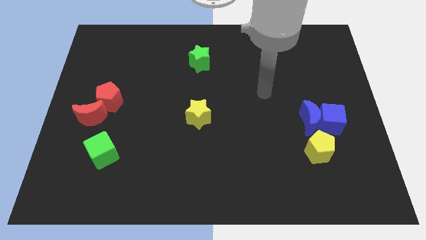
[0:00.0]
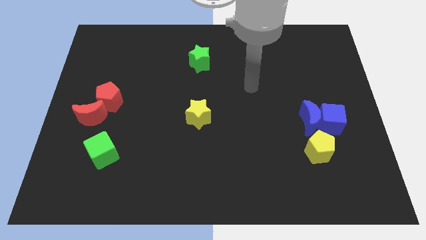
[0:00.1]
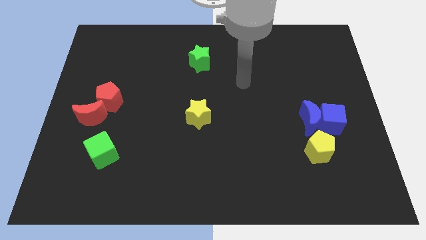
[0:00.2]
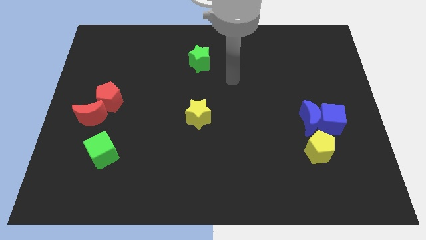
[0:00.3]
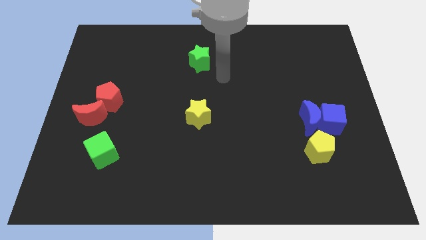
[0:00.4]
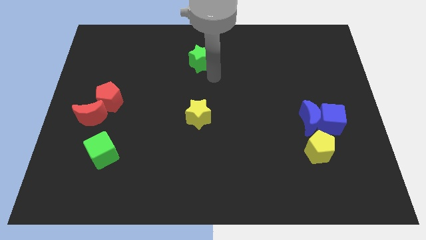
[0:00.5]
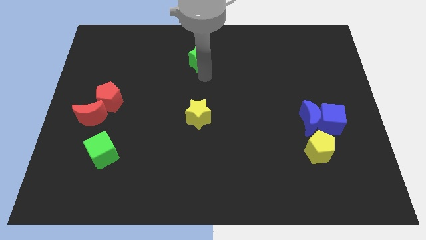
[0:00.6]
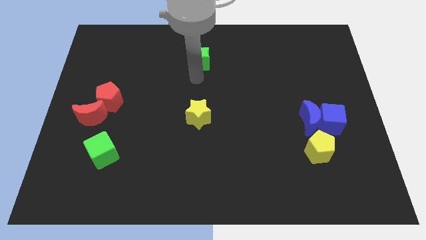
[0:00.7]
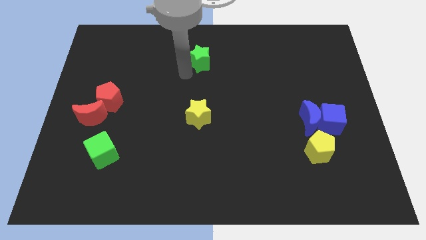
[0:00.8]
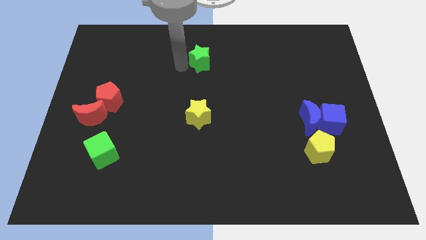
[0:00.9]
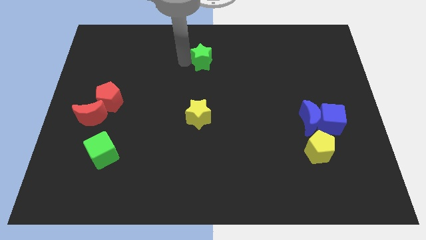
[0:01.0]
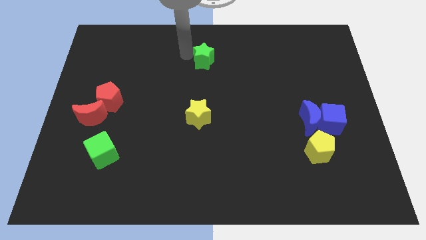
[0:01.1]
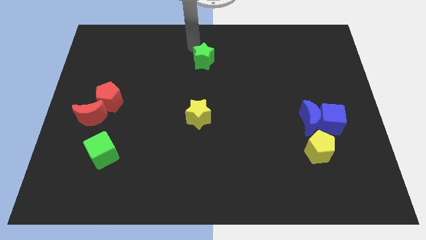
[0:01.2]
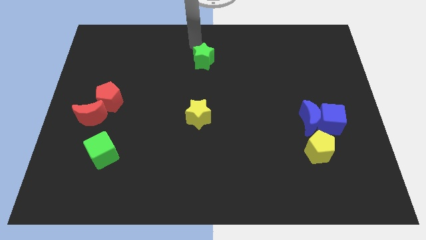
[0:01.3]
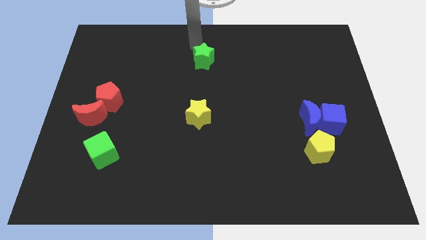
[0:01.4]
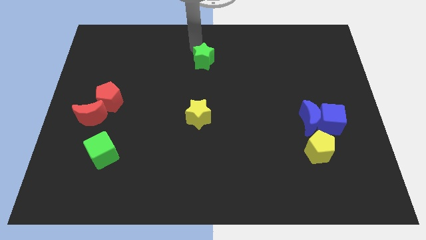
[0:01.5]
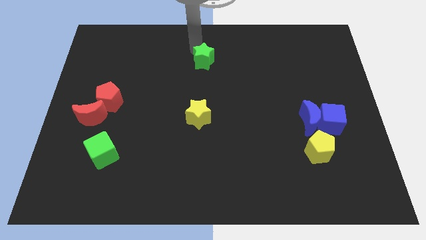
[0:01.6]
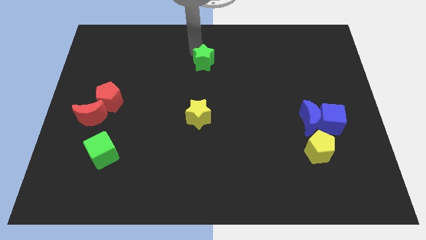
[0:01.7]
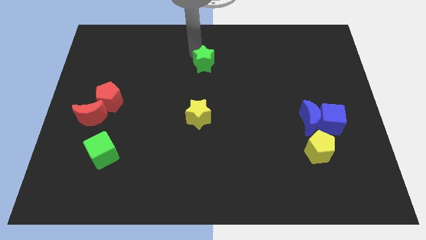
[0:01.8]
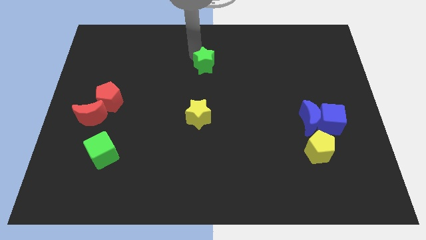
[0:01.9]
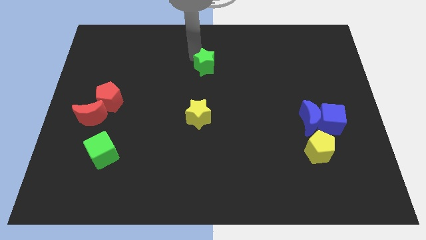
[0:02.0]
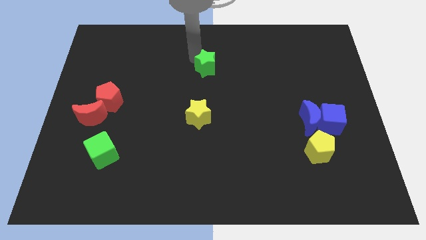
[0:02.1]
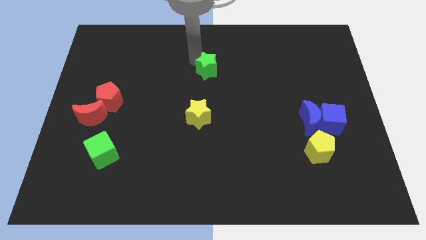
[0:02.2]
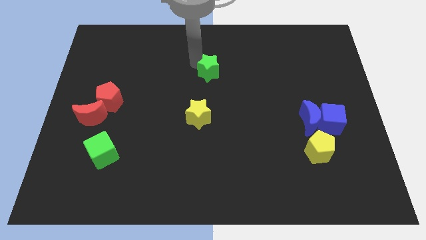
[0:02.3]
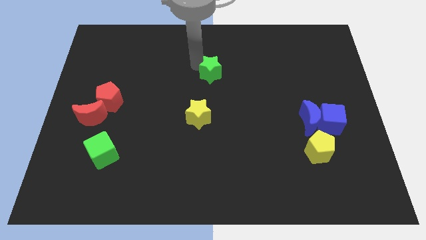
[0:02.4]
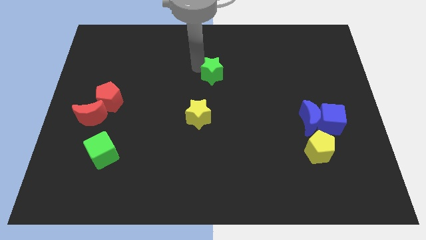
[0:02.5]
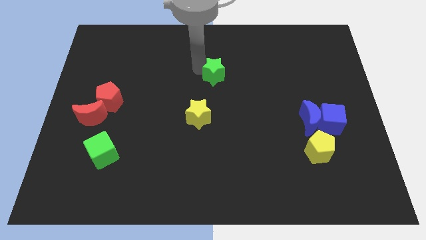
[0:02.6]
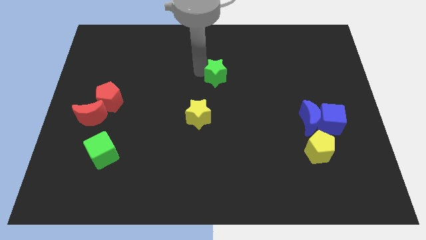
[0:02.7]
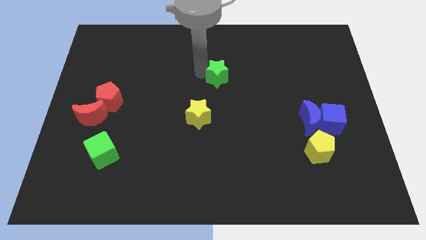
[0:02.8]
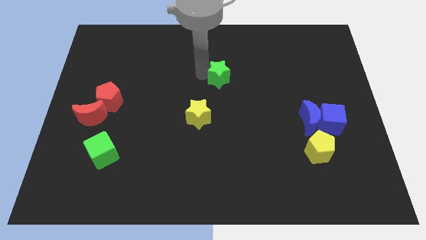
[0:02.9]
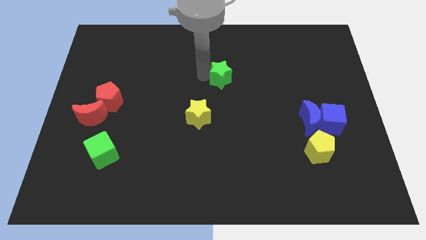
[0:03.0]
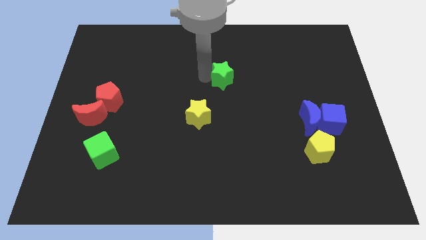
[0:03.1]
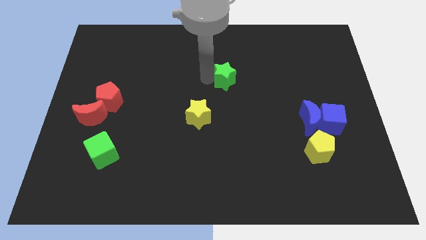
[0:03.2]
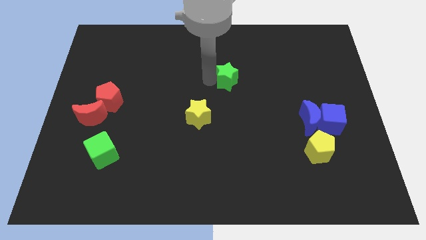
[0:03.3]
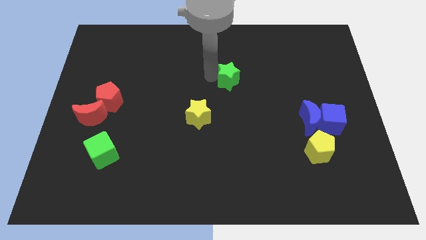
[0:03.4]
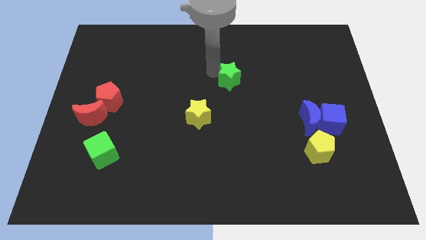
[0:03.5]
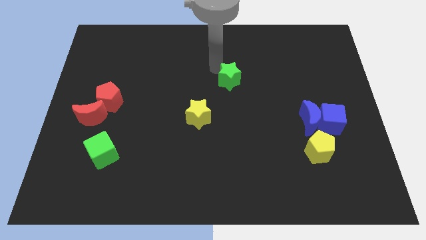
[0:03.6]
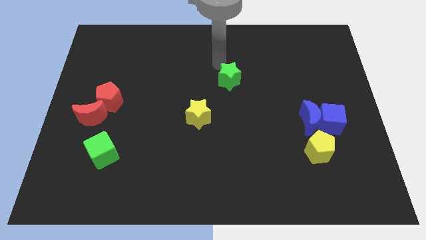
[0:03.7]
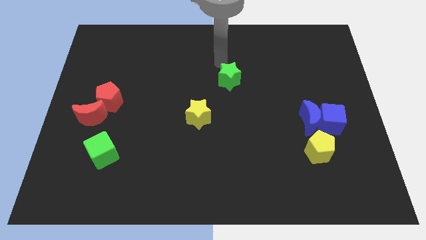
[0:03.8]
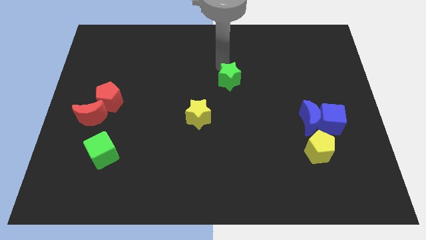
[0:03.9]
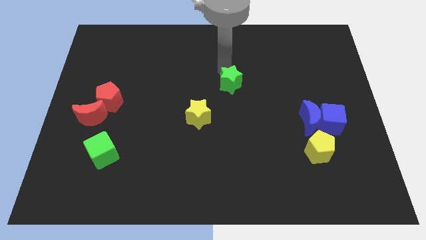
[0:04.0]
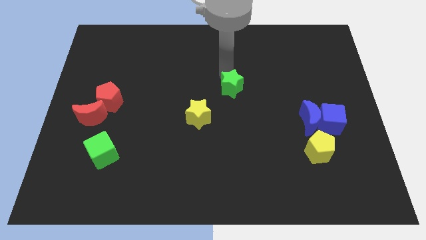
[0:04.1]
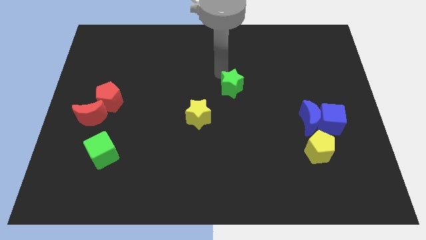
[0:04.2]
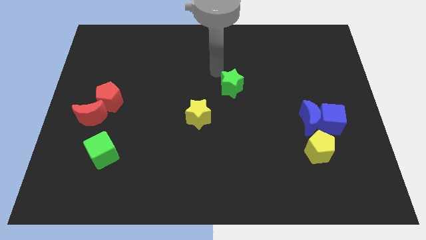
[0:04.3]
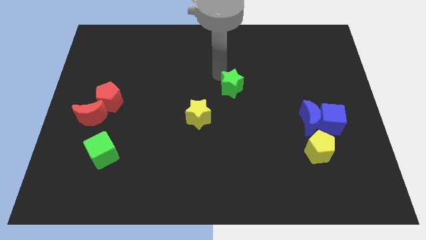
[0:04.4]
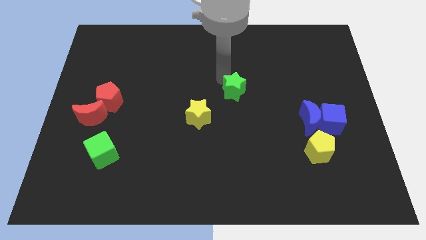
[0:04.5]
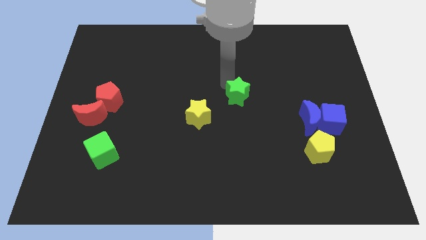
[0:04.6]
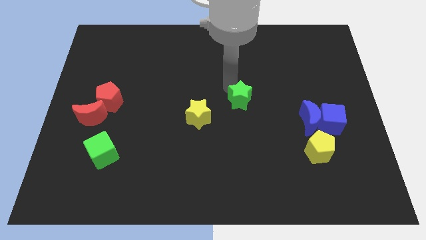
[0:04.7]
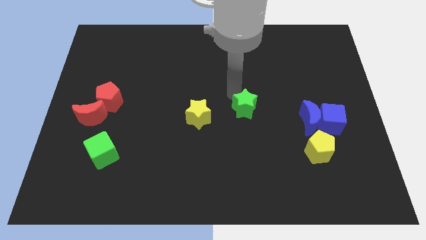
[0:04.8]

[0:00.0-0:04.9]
put the green star just left of the blue moon

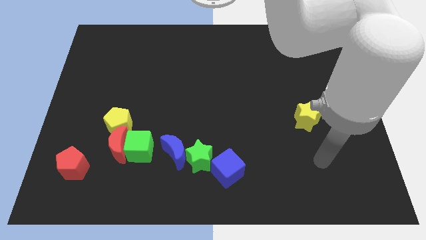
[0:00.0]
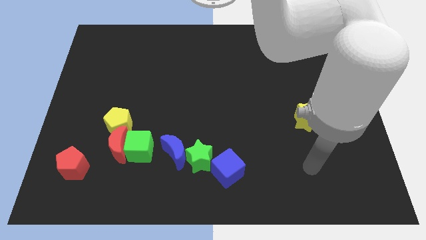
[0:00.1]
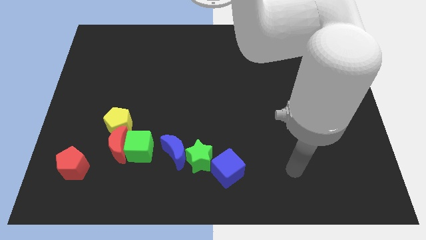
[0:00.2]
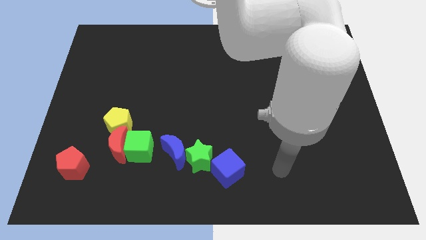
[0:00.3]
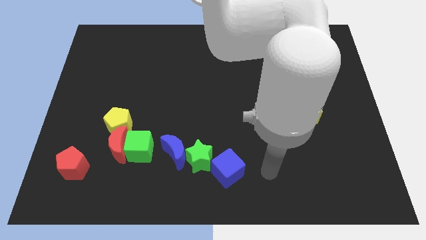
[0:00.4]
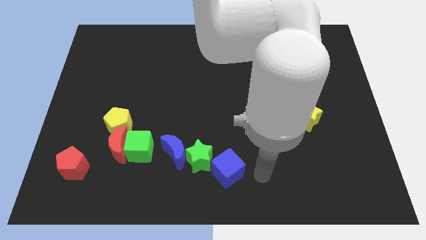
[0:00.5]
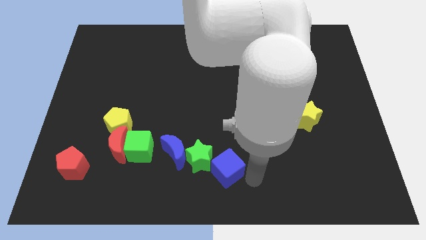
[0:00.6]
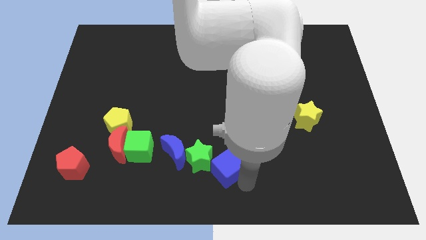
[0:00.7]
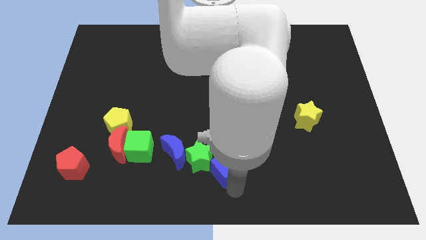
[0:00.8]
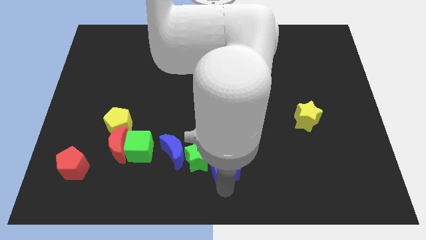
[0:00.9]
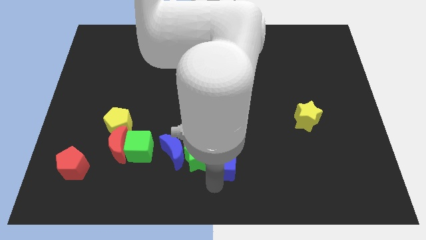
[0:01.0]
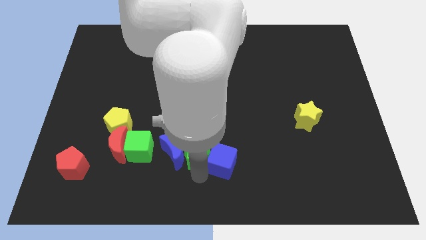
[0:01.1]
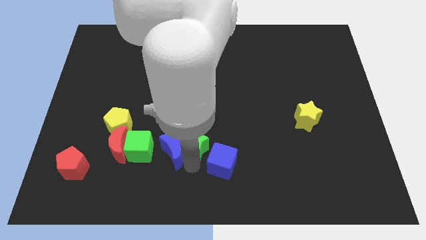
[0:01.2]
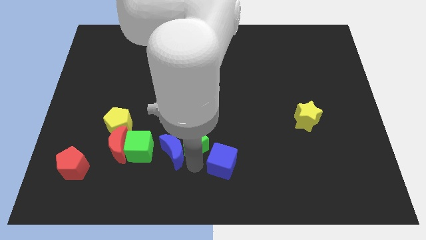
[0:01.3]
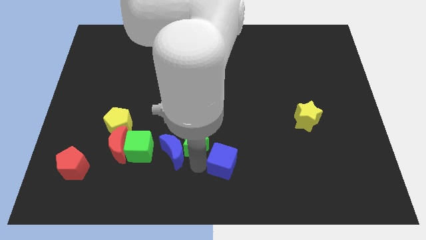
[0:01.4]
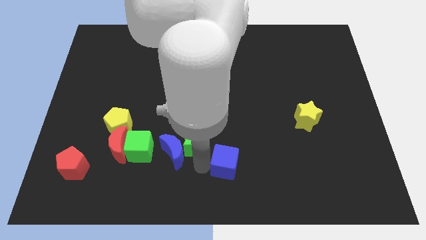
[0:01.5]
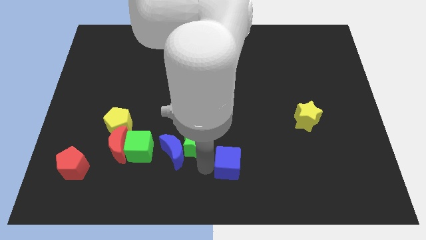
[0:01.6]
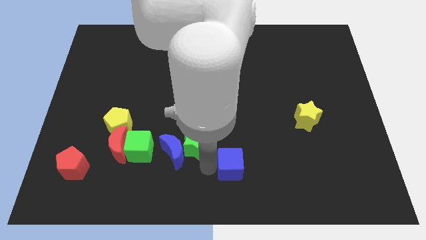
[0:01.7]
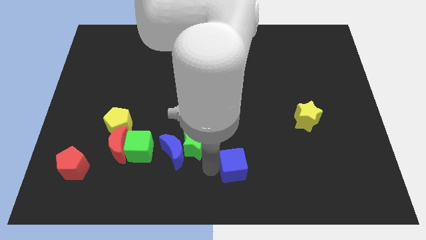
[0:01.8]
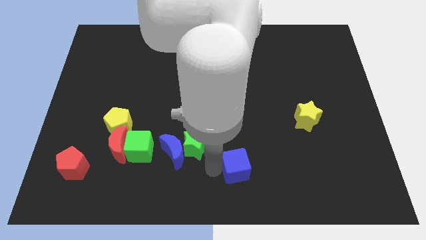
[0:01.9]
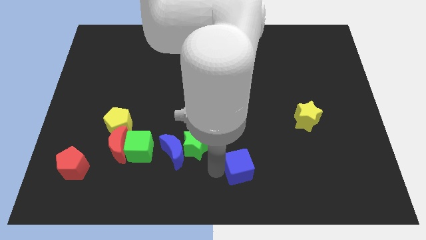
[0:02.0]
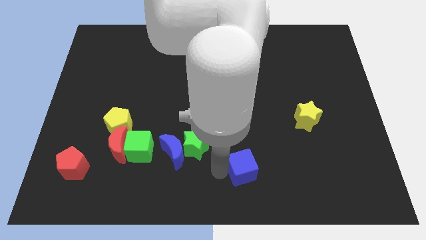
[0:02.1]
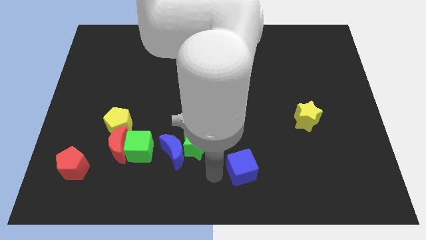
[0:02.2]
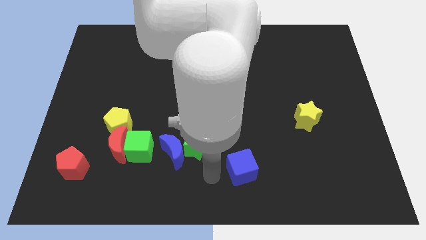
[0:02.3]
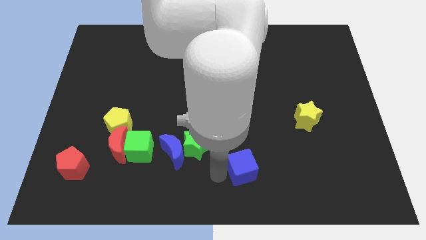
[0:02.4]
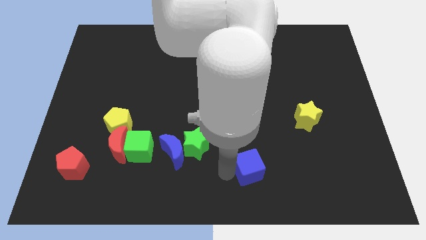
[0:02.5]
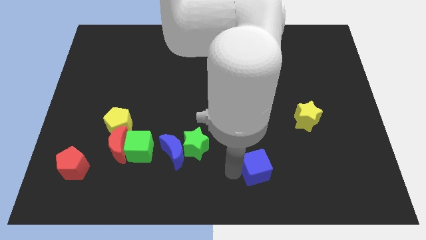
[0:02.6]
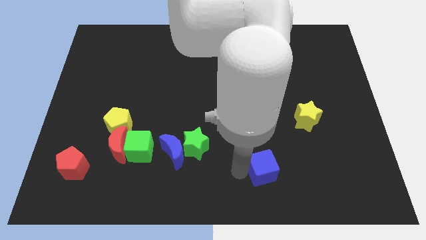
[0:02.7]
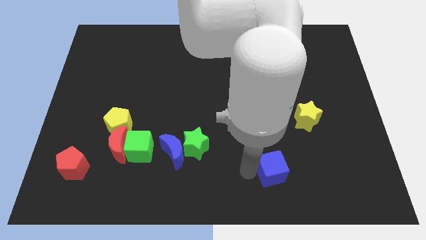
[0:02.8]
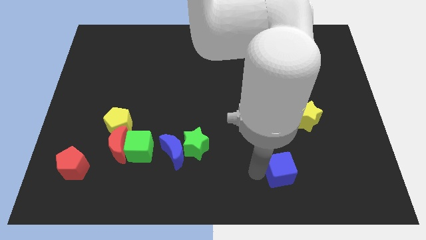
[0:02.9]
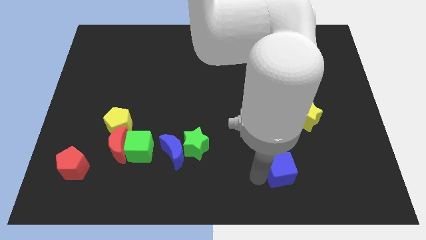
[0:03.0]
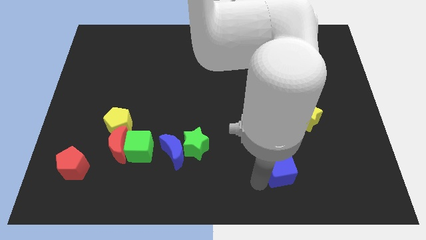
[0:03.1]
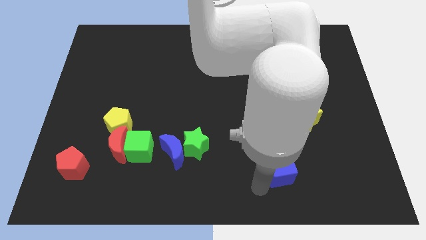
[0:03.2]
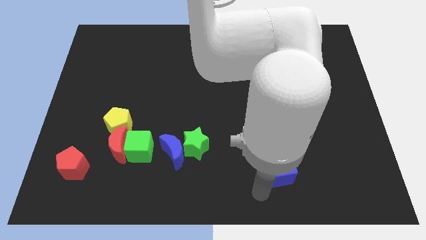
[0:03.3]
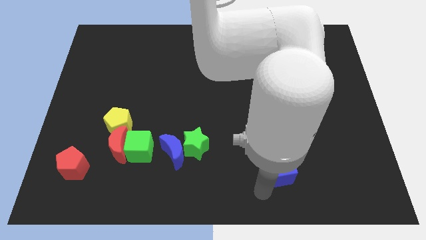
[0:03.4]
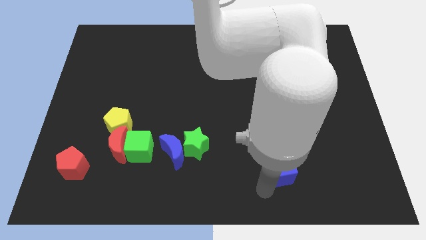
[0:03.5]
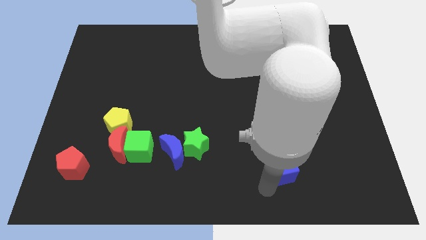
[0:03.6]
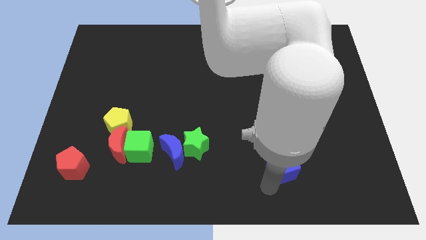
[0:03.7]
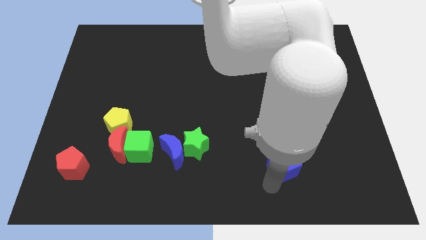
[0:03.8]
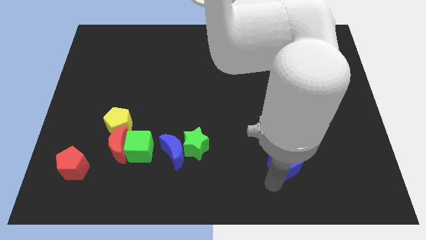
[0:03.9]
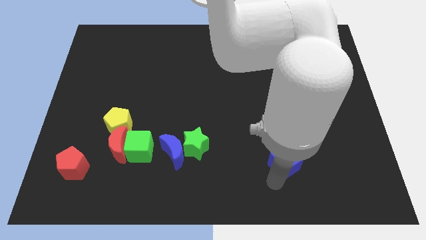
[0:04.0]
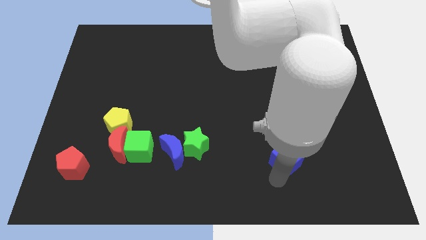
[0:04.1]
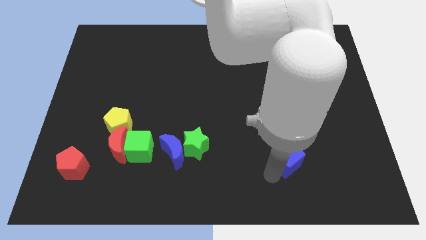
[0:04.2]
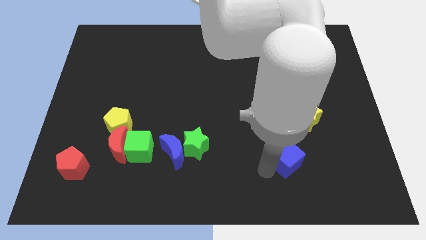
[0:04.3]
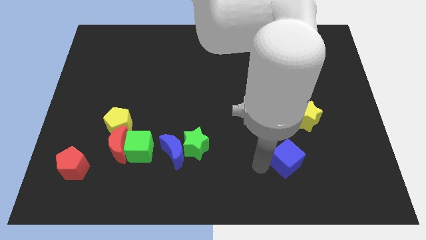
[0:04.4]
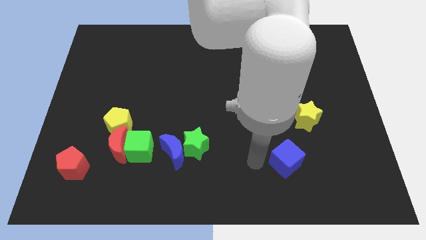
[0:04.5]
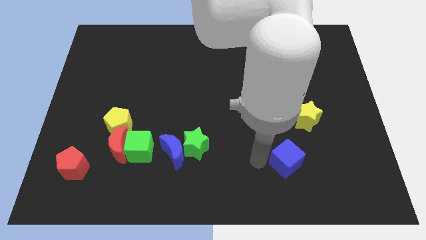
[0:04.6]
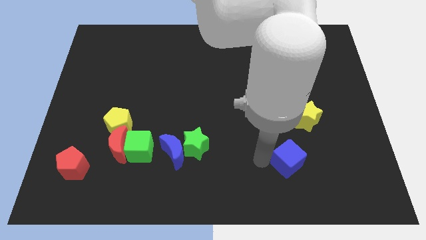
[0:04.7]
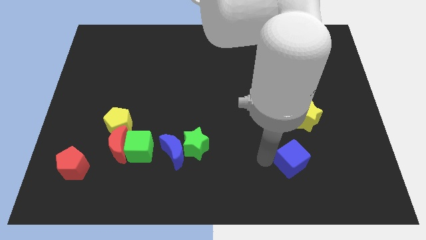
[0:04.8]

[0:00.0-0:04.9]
put the blue cube to the bottom side of the yellow star
